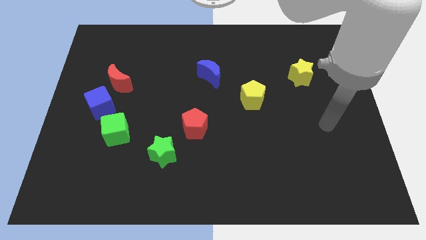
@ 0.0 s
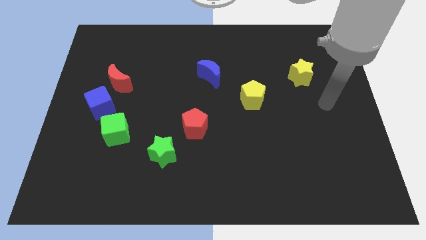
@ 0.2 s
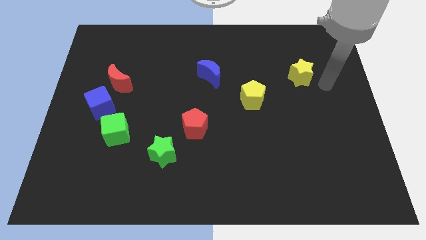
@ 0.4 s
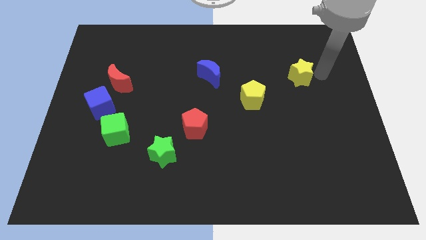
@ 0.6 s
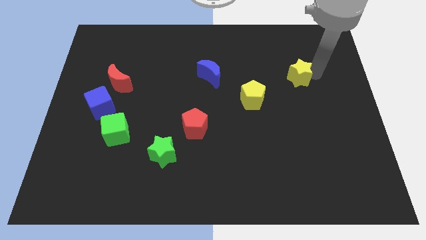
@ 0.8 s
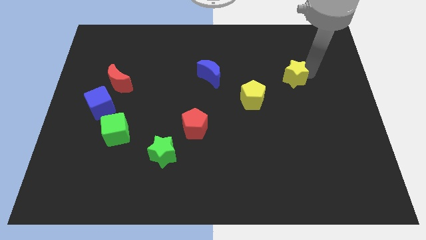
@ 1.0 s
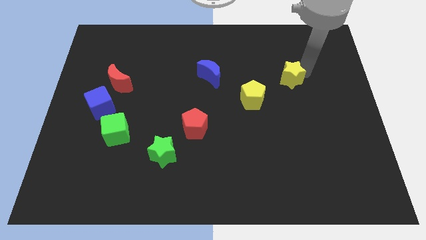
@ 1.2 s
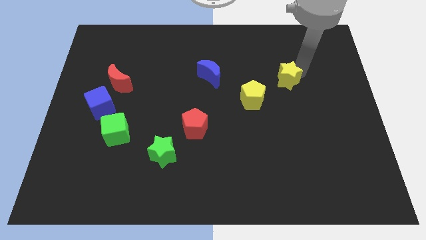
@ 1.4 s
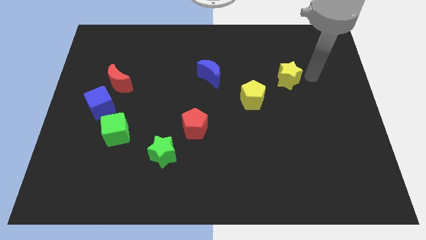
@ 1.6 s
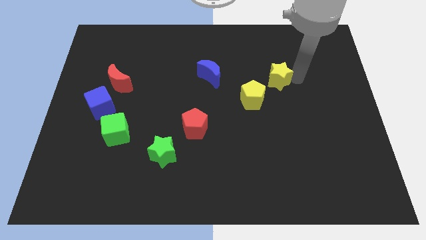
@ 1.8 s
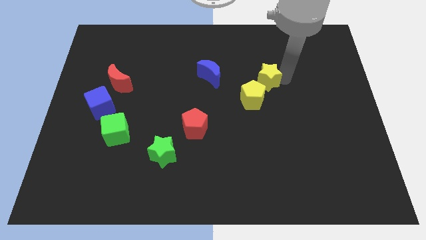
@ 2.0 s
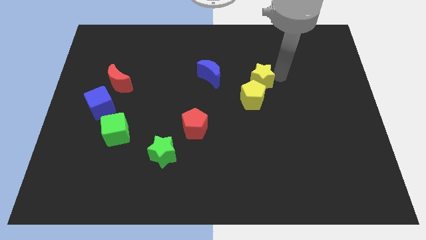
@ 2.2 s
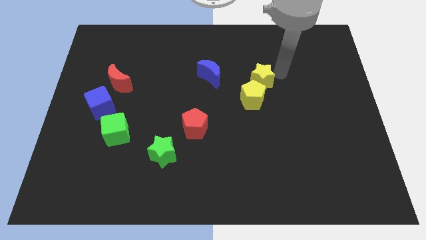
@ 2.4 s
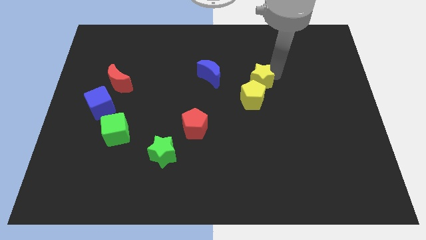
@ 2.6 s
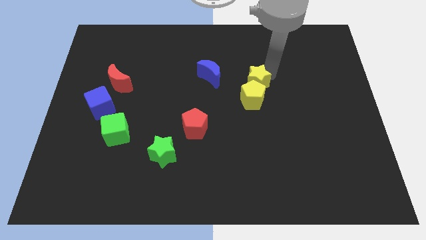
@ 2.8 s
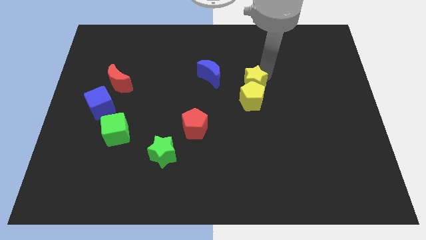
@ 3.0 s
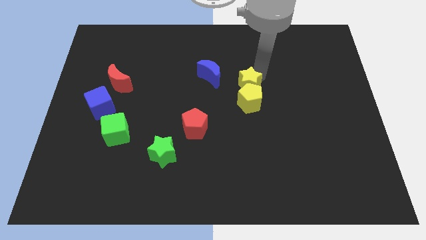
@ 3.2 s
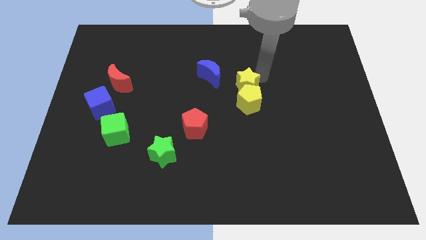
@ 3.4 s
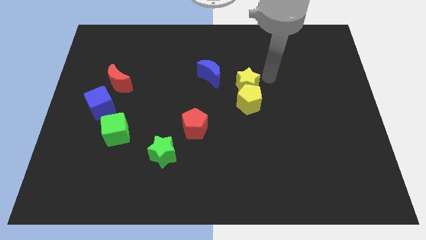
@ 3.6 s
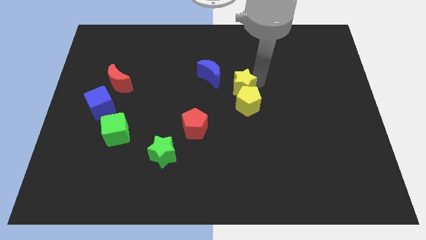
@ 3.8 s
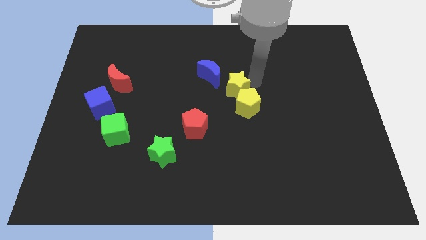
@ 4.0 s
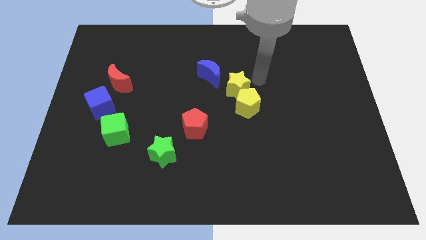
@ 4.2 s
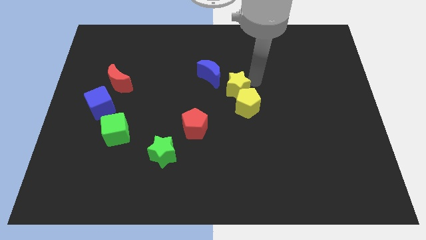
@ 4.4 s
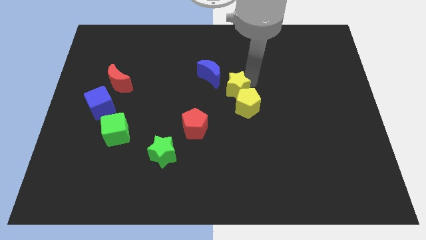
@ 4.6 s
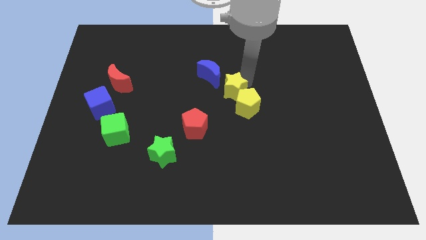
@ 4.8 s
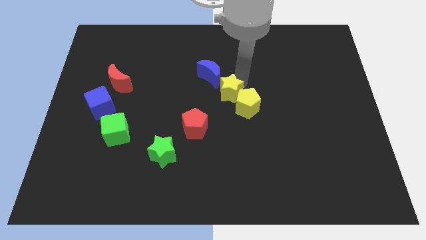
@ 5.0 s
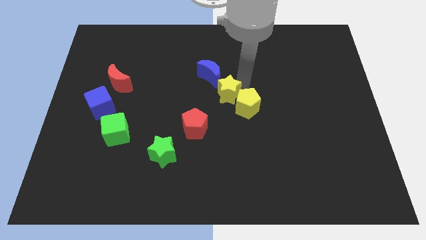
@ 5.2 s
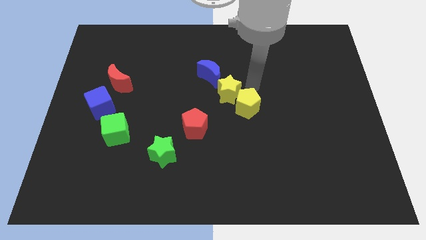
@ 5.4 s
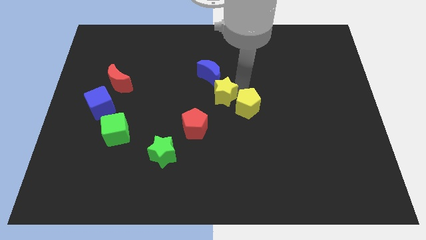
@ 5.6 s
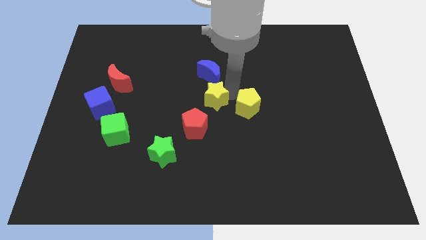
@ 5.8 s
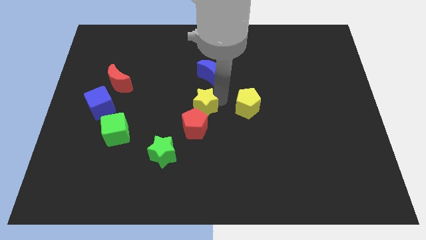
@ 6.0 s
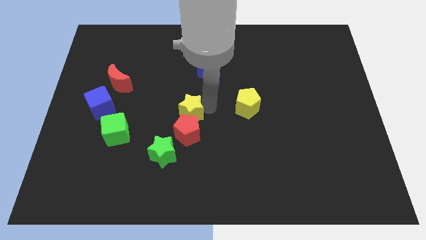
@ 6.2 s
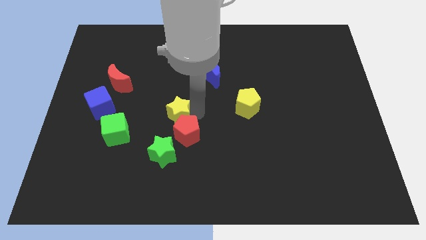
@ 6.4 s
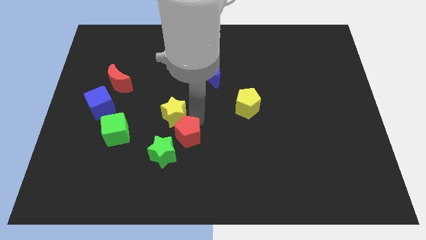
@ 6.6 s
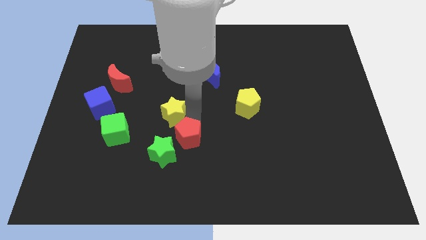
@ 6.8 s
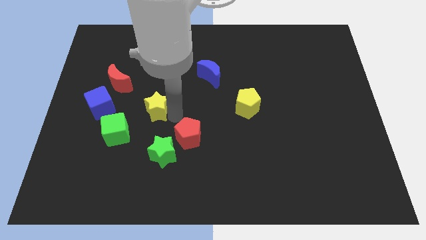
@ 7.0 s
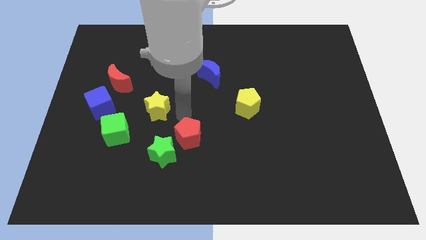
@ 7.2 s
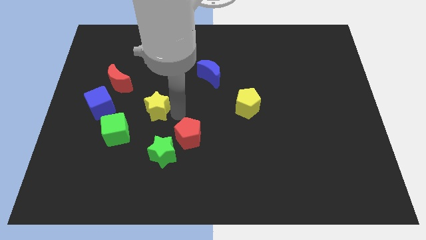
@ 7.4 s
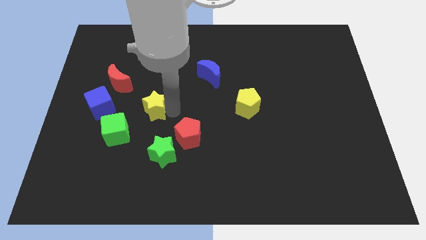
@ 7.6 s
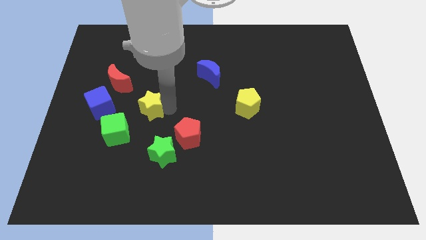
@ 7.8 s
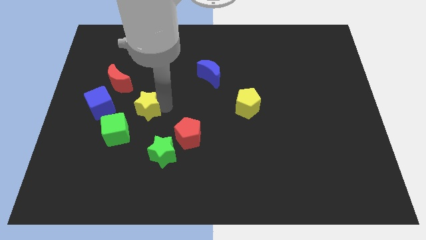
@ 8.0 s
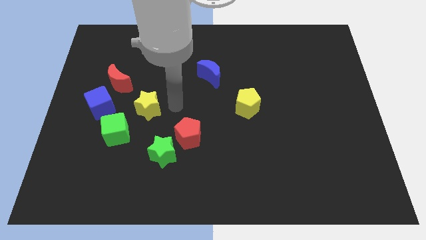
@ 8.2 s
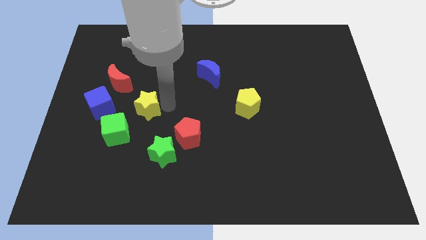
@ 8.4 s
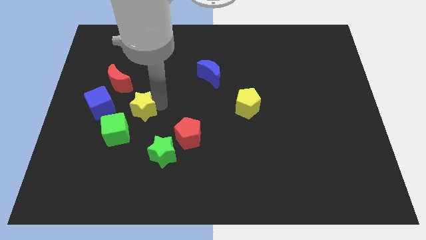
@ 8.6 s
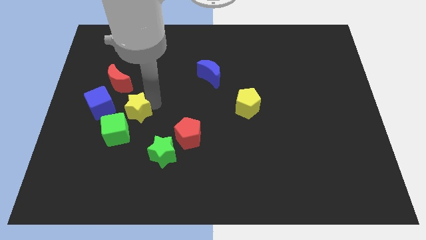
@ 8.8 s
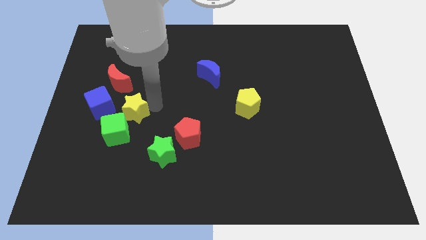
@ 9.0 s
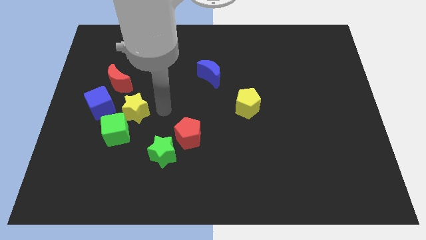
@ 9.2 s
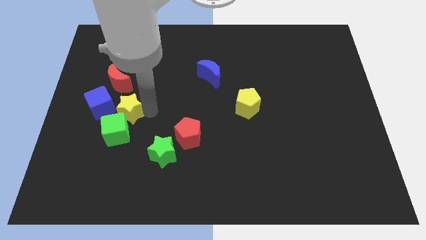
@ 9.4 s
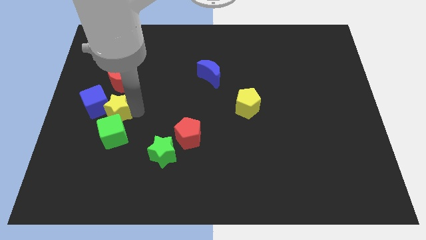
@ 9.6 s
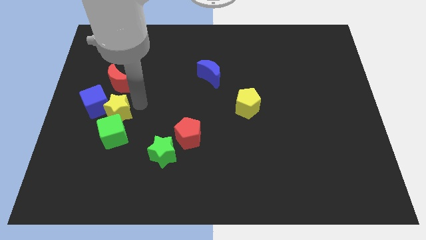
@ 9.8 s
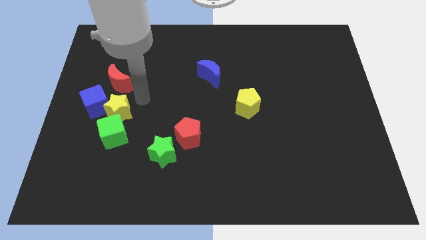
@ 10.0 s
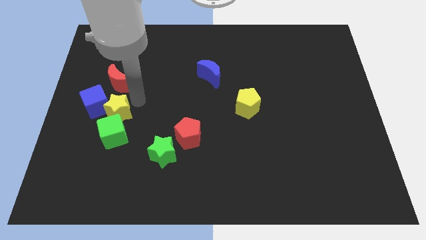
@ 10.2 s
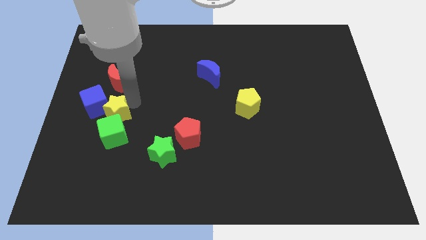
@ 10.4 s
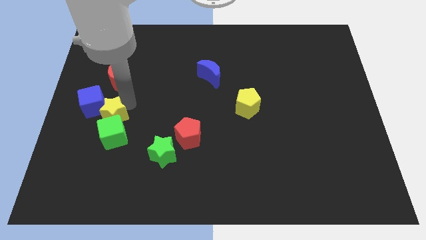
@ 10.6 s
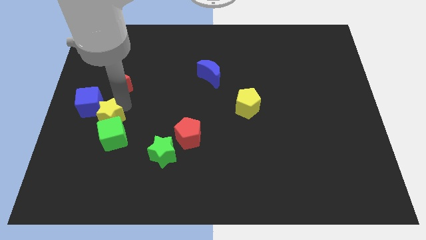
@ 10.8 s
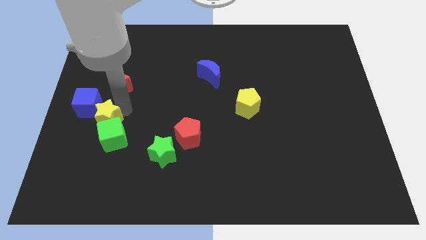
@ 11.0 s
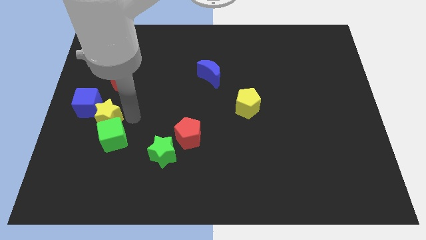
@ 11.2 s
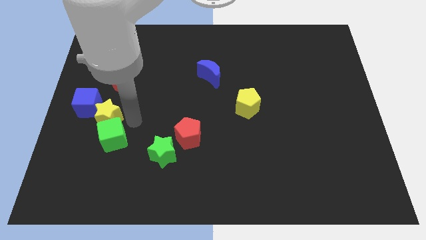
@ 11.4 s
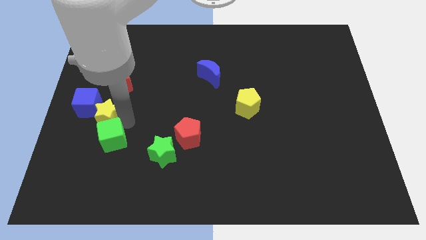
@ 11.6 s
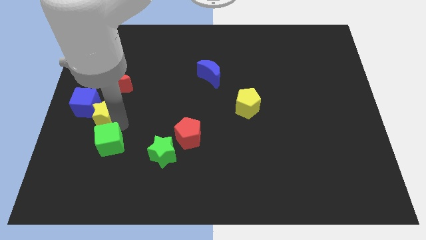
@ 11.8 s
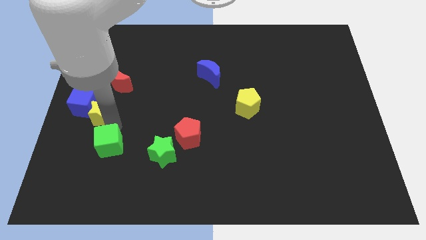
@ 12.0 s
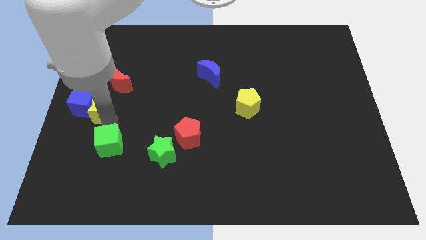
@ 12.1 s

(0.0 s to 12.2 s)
push the yellow star to the center left
